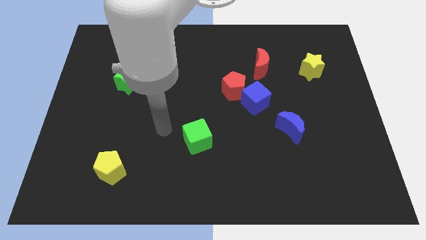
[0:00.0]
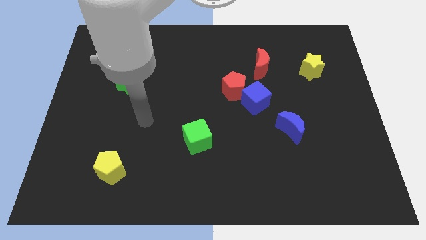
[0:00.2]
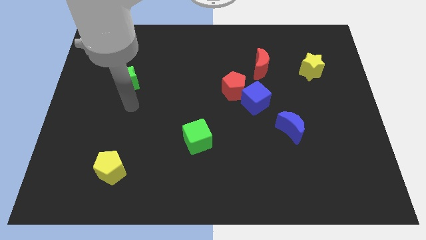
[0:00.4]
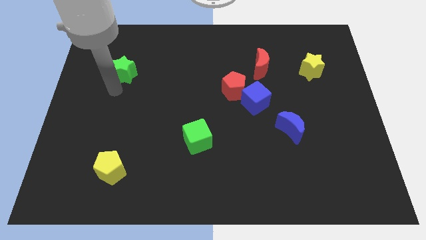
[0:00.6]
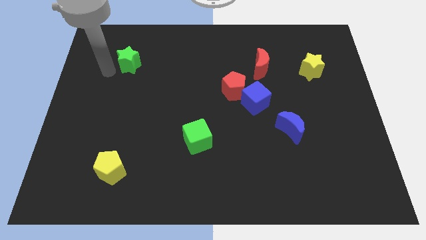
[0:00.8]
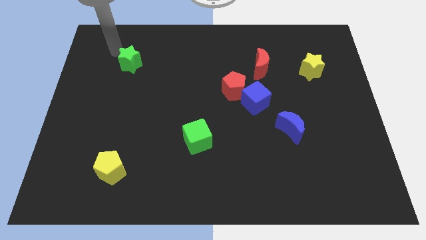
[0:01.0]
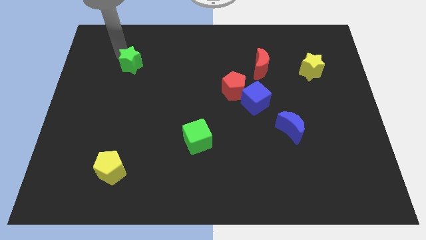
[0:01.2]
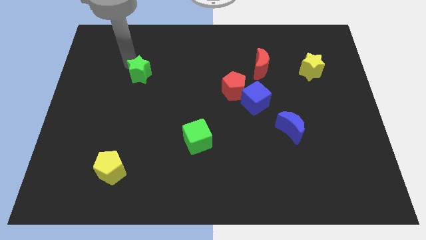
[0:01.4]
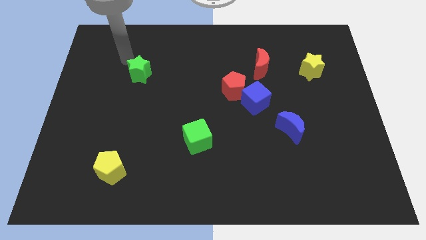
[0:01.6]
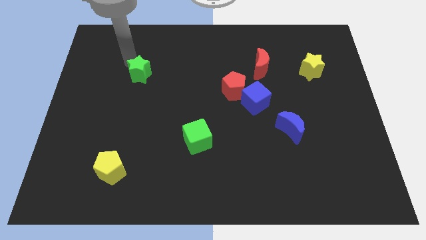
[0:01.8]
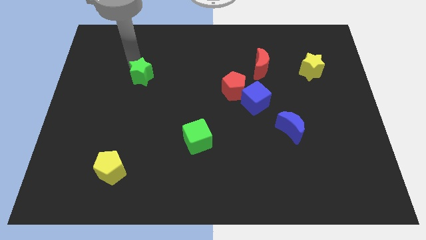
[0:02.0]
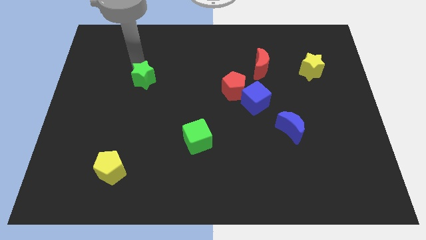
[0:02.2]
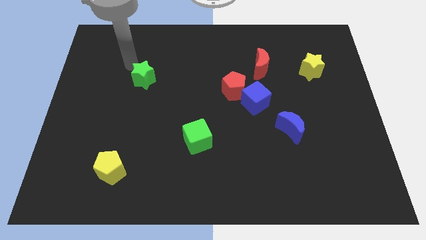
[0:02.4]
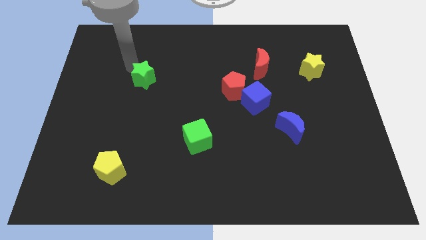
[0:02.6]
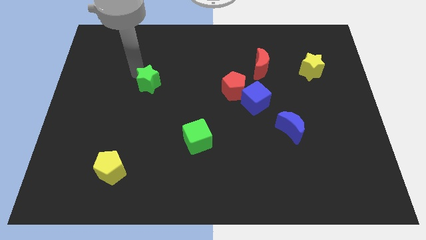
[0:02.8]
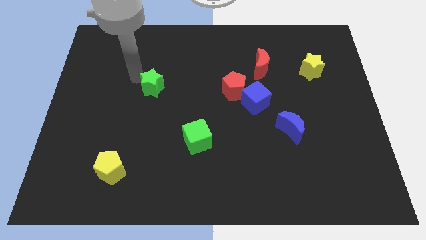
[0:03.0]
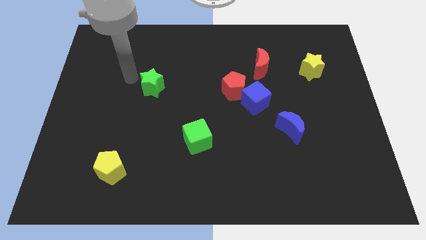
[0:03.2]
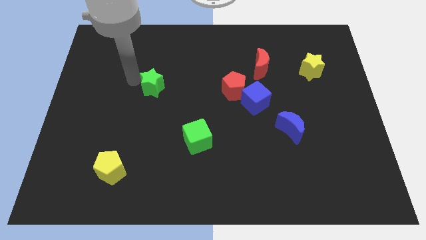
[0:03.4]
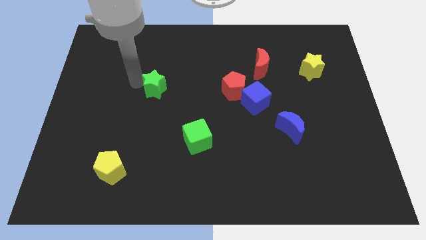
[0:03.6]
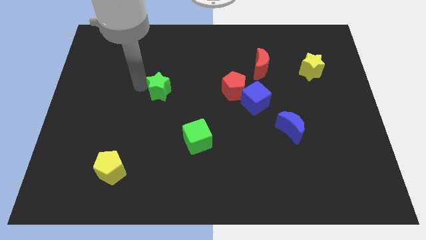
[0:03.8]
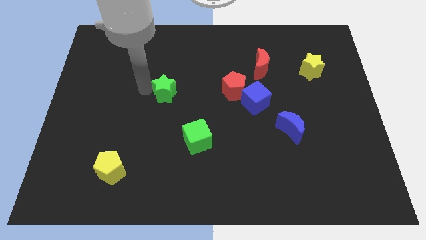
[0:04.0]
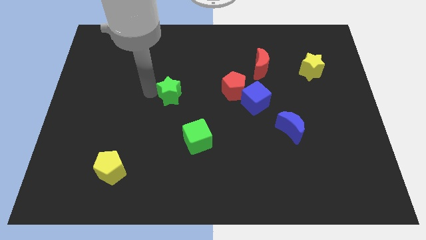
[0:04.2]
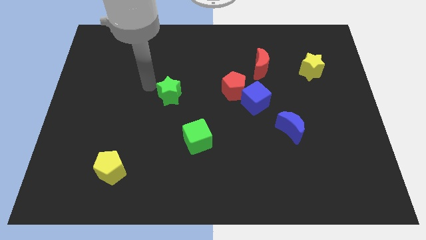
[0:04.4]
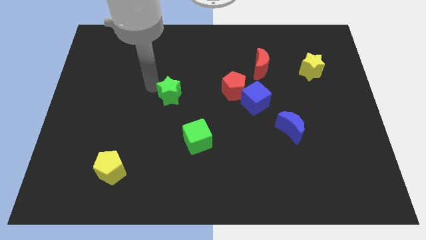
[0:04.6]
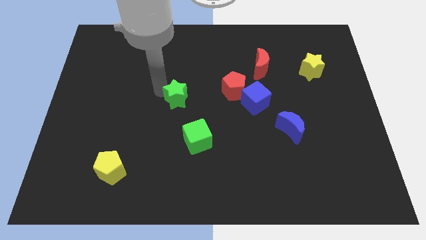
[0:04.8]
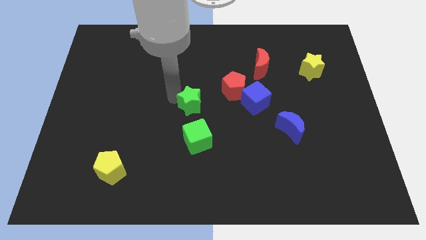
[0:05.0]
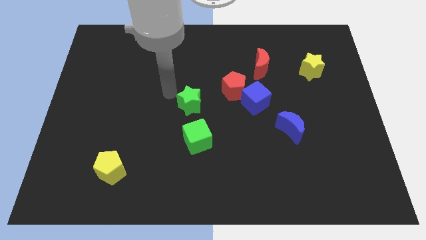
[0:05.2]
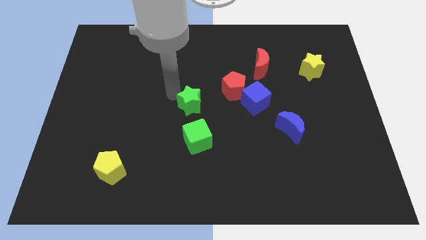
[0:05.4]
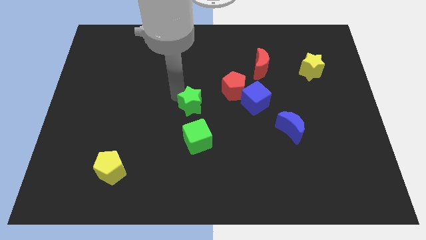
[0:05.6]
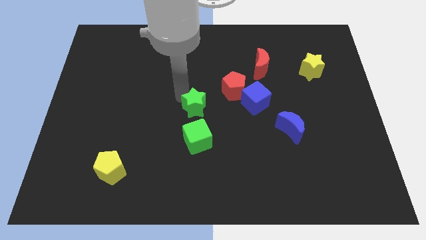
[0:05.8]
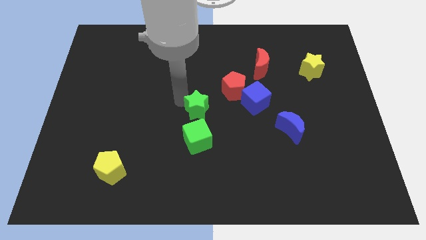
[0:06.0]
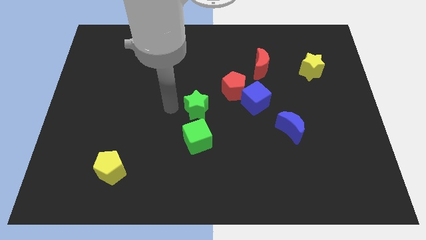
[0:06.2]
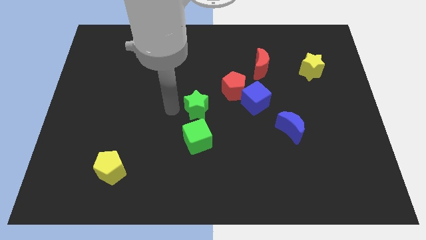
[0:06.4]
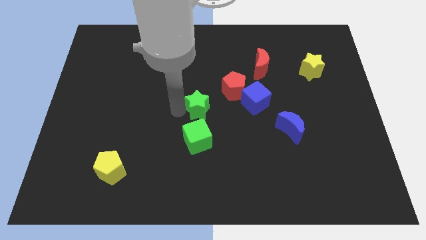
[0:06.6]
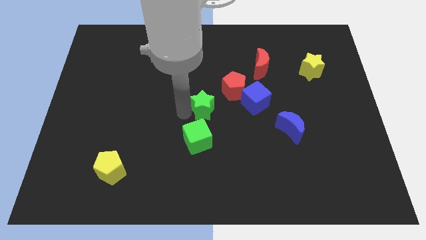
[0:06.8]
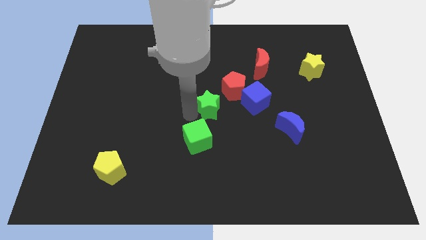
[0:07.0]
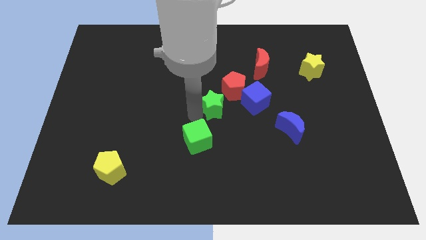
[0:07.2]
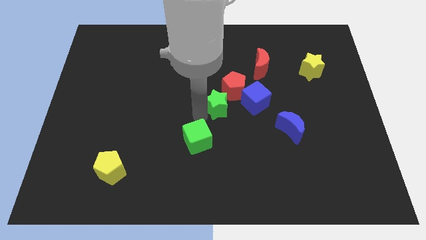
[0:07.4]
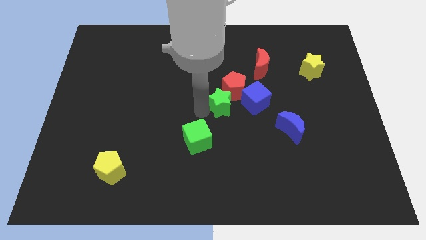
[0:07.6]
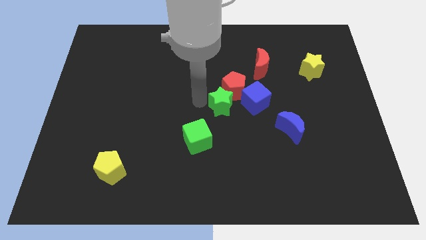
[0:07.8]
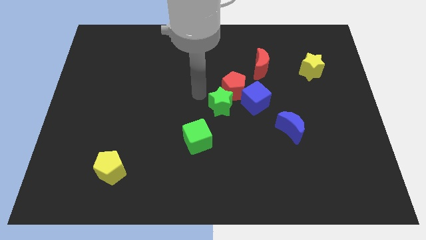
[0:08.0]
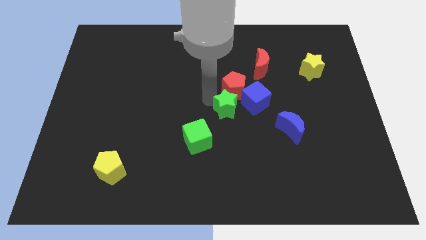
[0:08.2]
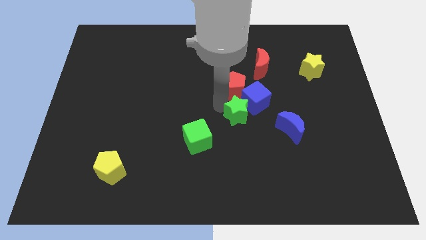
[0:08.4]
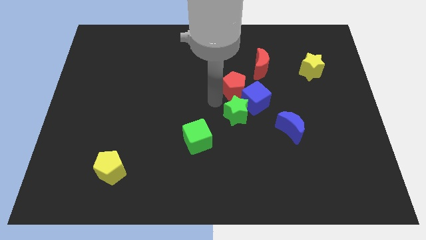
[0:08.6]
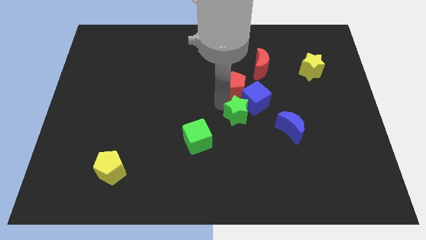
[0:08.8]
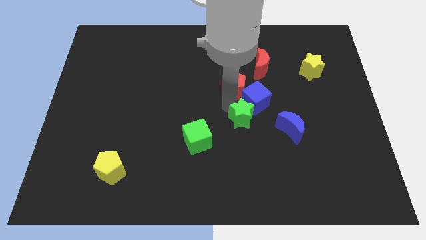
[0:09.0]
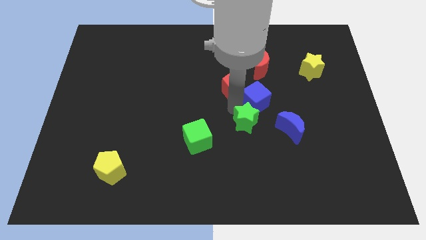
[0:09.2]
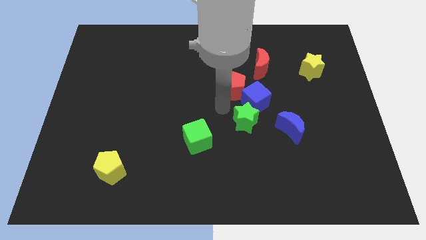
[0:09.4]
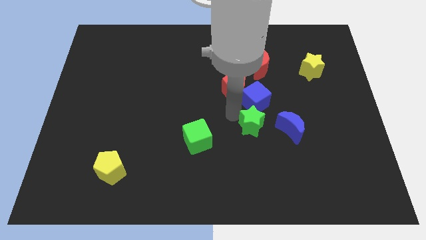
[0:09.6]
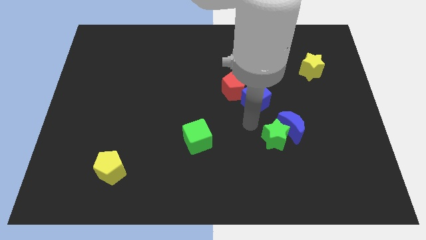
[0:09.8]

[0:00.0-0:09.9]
push the green star to the bottom side of the blue moon

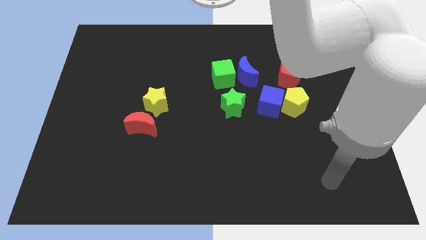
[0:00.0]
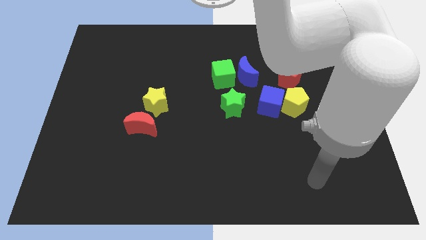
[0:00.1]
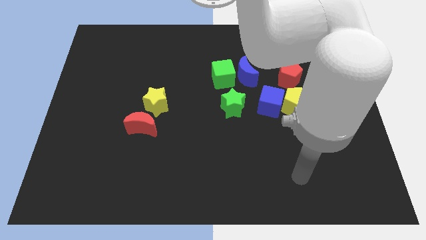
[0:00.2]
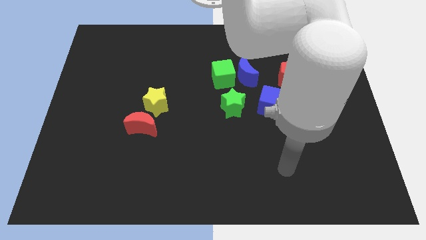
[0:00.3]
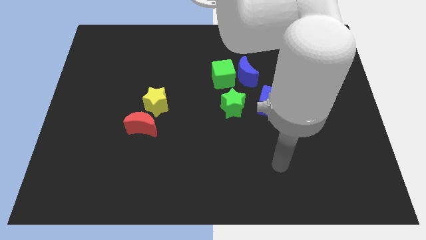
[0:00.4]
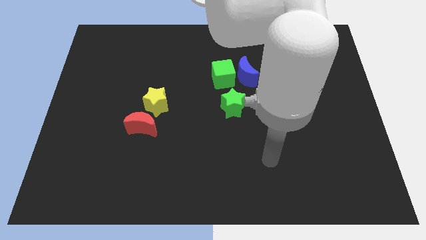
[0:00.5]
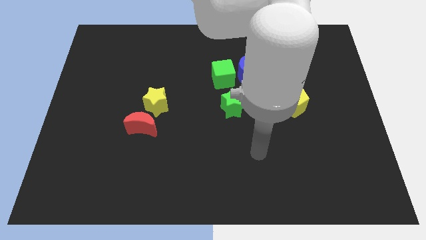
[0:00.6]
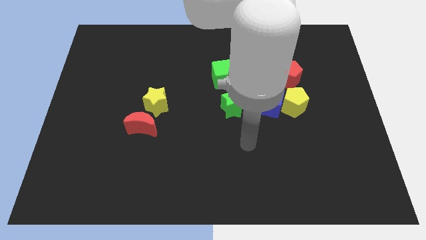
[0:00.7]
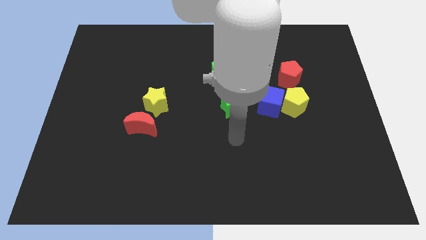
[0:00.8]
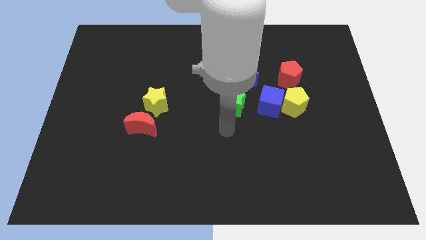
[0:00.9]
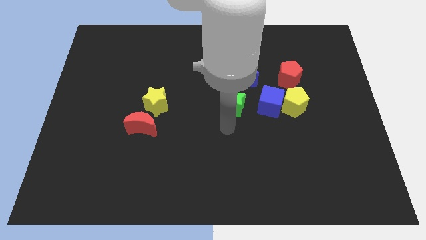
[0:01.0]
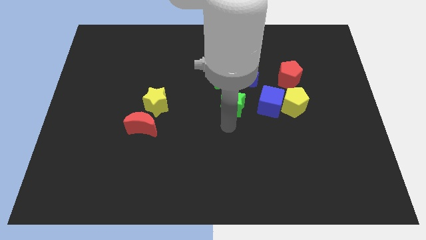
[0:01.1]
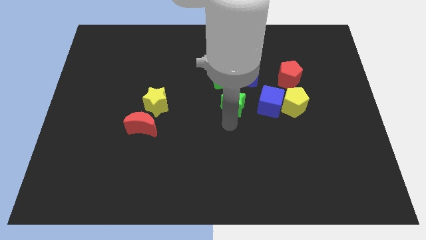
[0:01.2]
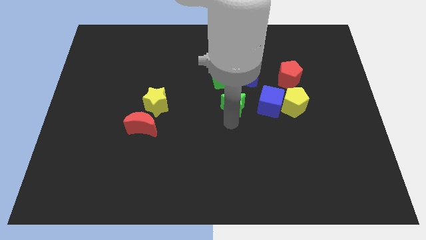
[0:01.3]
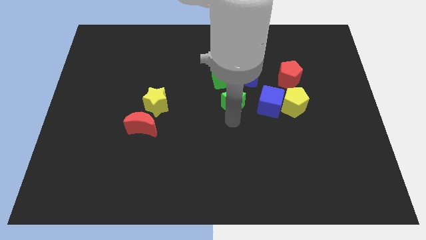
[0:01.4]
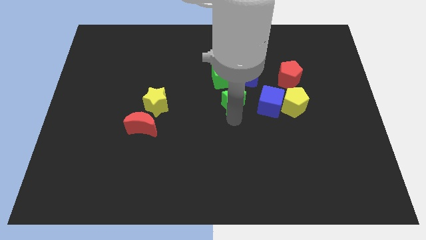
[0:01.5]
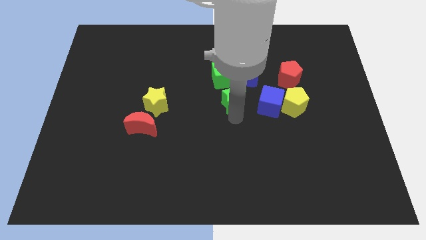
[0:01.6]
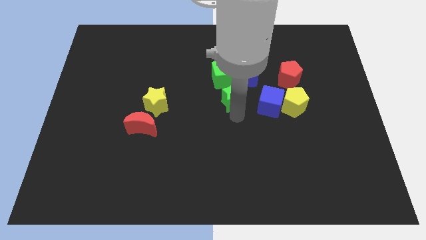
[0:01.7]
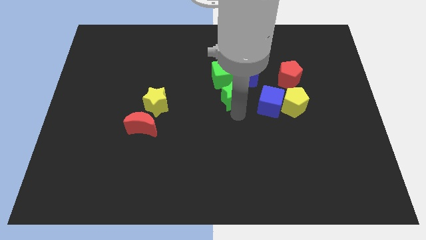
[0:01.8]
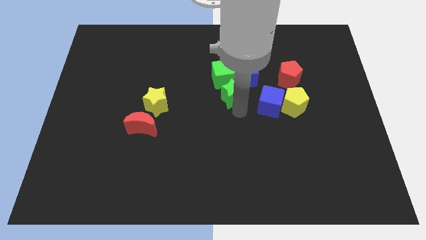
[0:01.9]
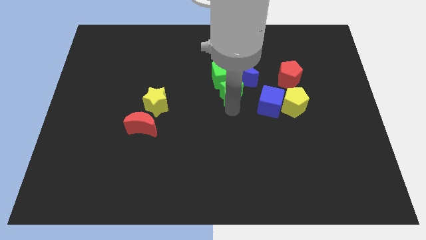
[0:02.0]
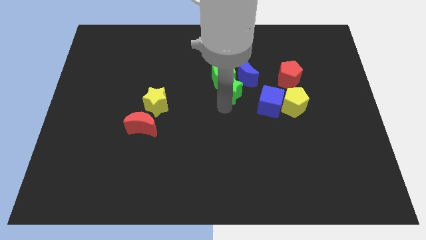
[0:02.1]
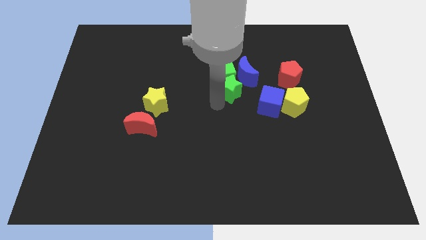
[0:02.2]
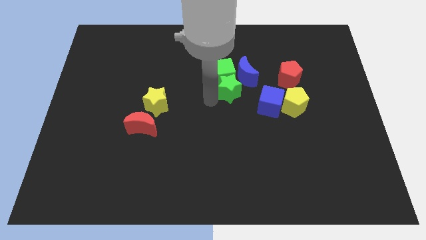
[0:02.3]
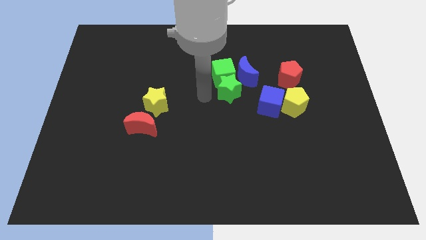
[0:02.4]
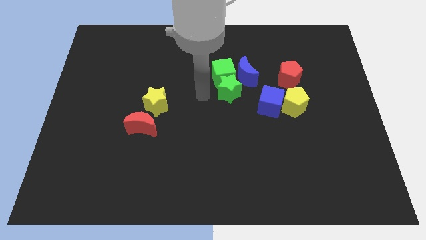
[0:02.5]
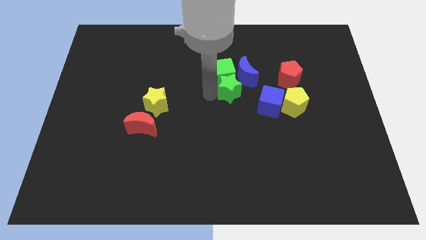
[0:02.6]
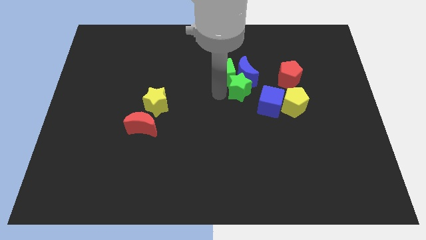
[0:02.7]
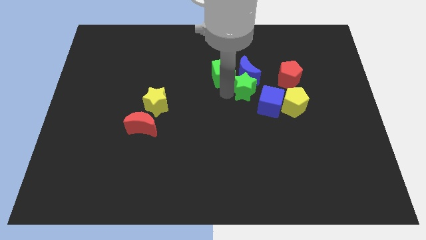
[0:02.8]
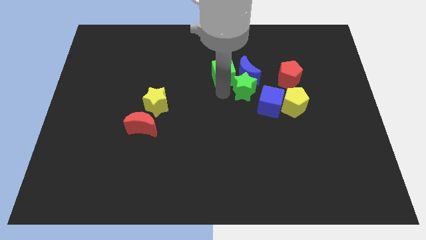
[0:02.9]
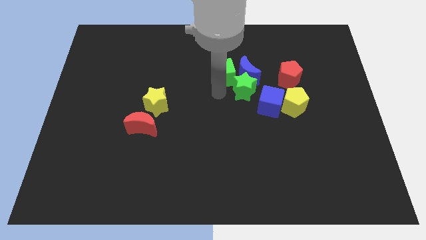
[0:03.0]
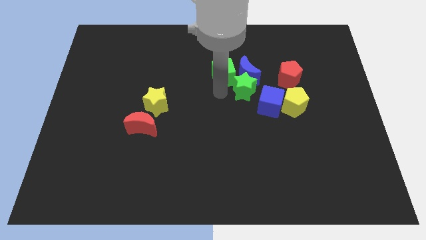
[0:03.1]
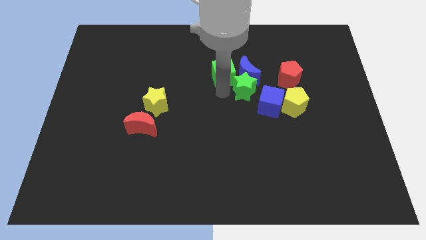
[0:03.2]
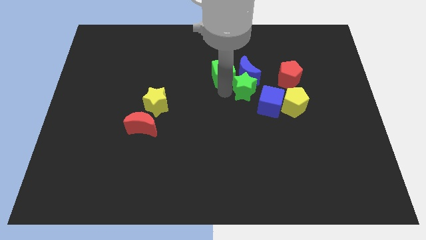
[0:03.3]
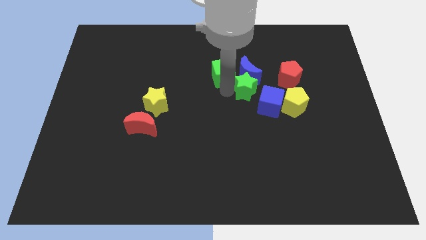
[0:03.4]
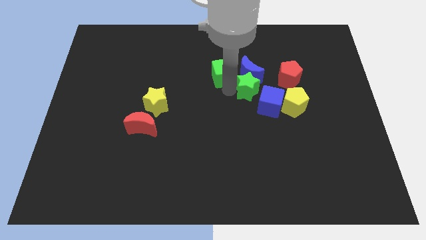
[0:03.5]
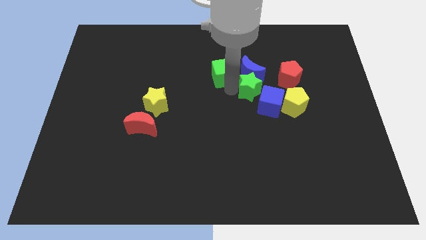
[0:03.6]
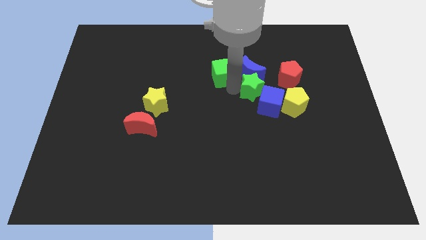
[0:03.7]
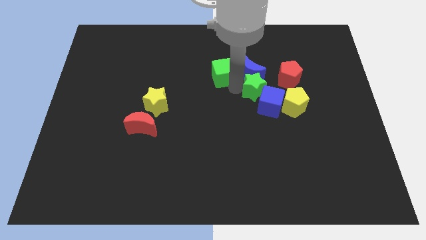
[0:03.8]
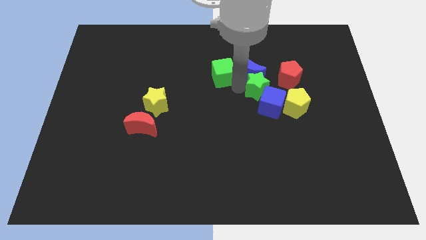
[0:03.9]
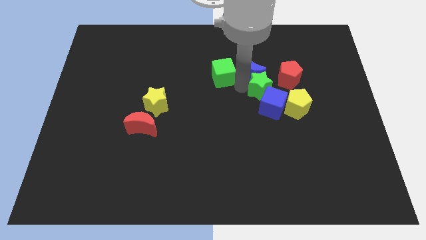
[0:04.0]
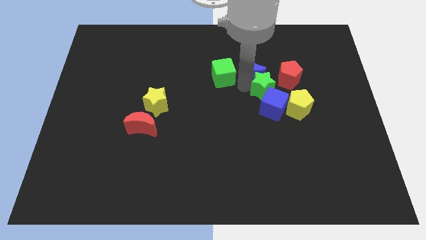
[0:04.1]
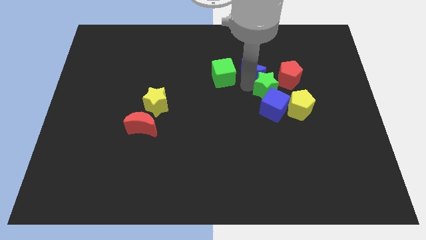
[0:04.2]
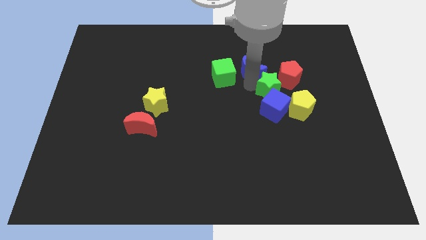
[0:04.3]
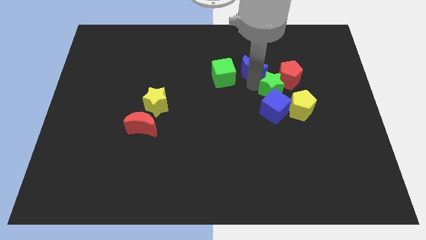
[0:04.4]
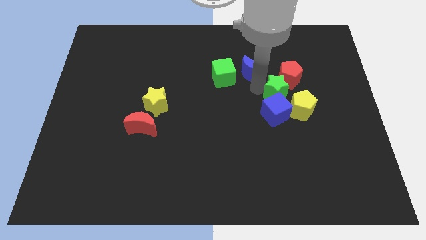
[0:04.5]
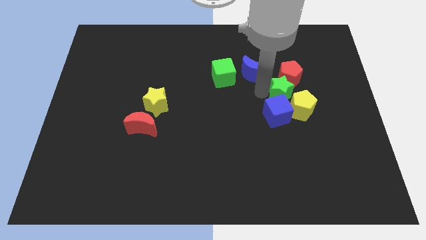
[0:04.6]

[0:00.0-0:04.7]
push the green star to the top side of the yellow pentagon
